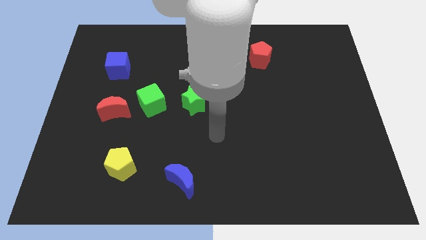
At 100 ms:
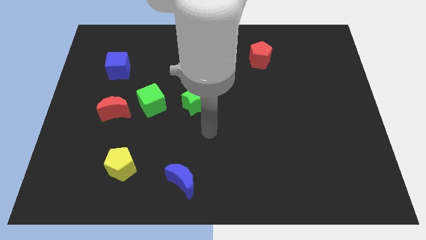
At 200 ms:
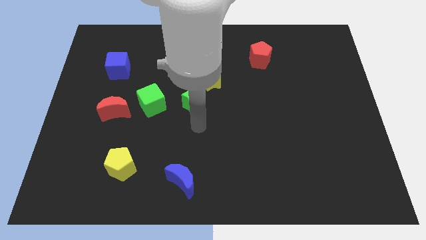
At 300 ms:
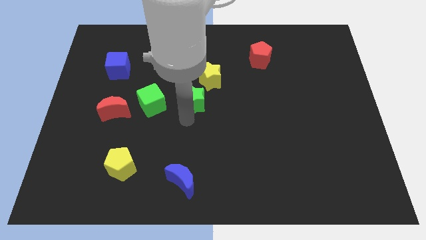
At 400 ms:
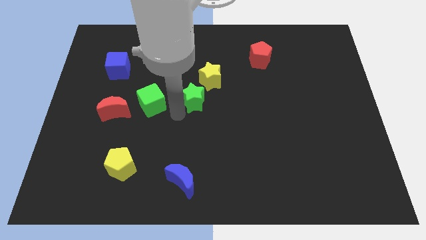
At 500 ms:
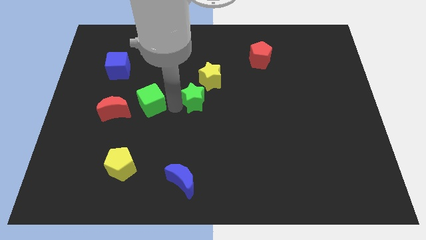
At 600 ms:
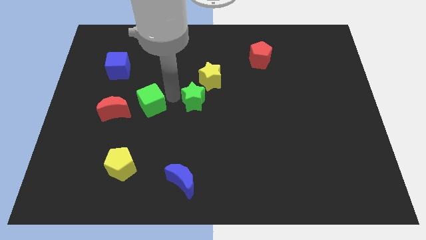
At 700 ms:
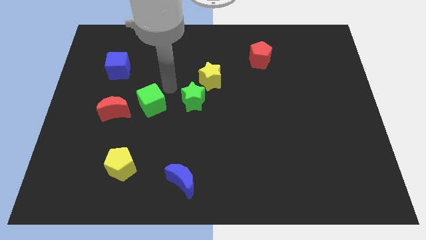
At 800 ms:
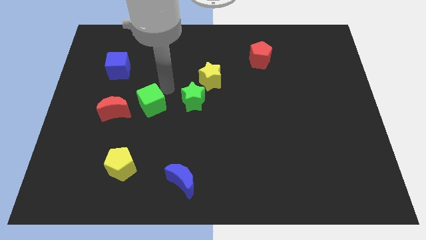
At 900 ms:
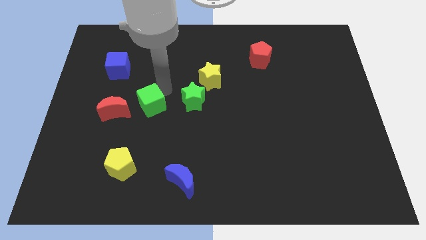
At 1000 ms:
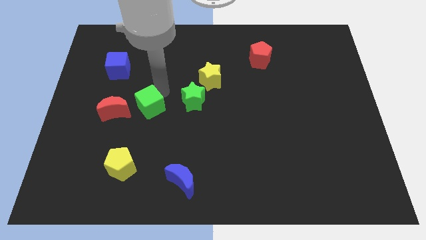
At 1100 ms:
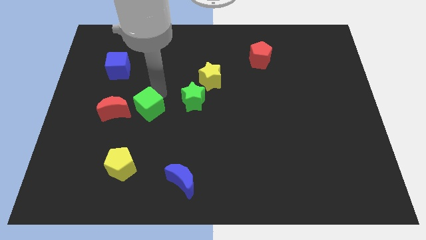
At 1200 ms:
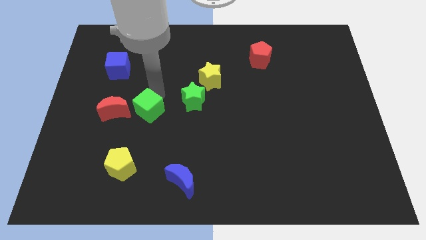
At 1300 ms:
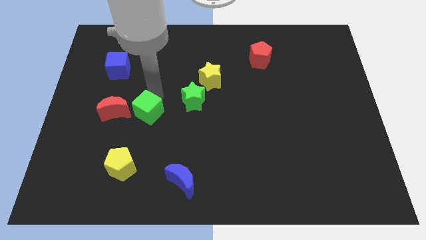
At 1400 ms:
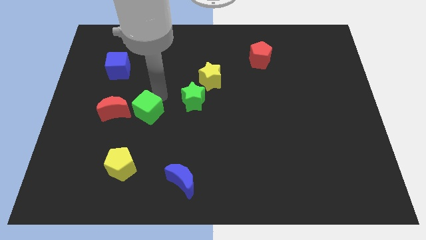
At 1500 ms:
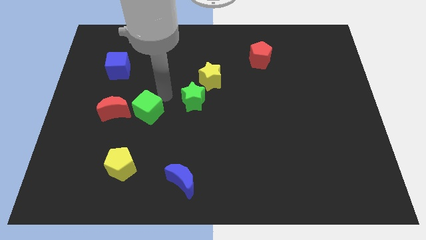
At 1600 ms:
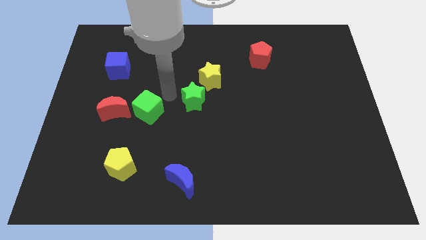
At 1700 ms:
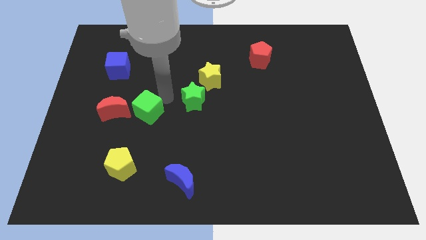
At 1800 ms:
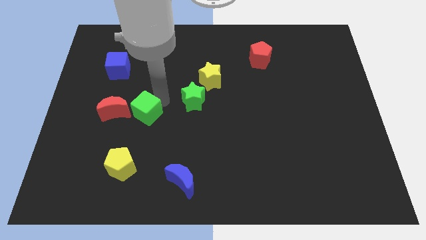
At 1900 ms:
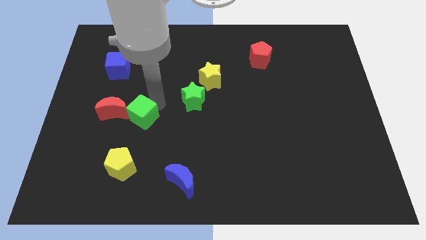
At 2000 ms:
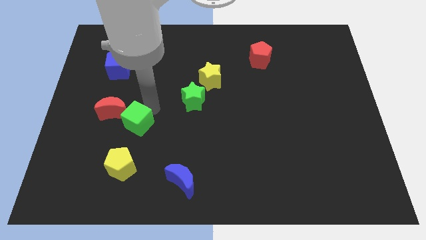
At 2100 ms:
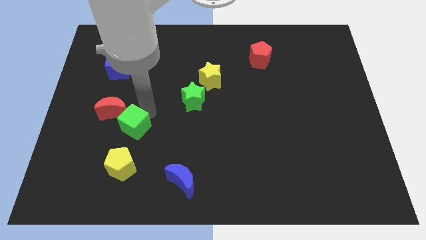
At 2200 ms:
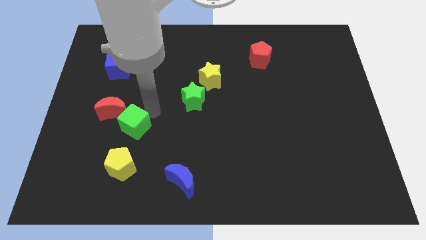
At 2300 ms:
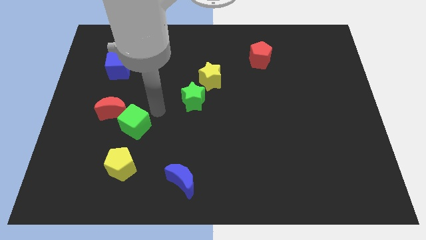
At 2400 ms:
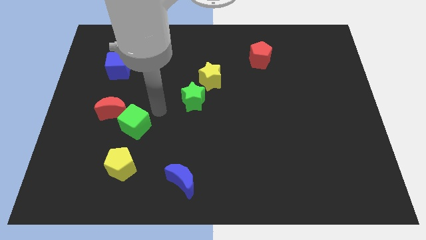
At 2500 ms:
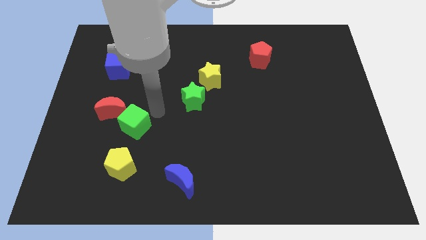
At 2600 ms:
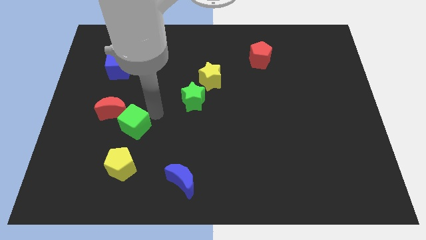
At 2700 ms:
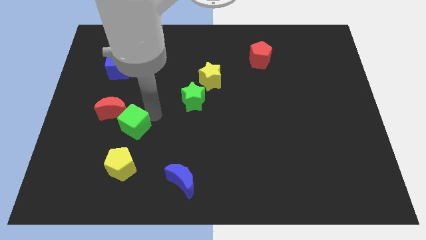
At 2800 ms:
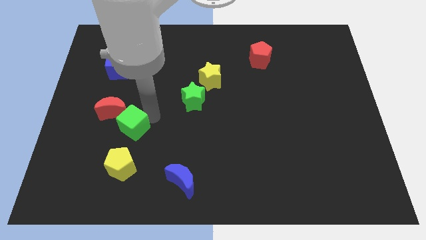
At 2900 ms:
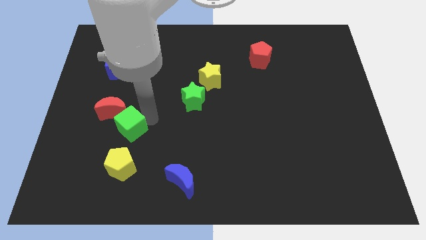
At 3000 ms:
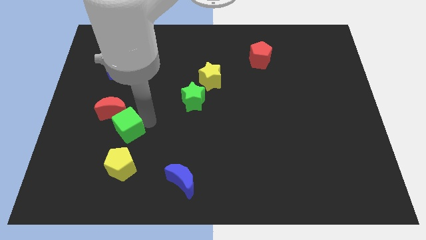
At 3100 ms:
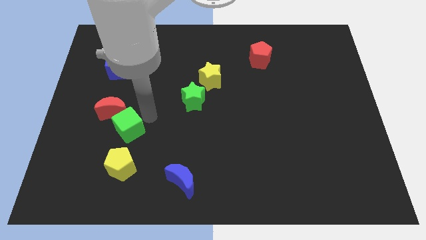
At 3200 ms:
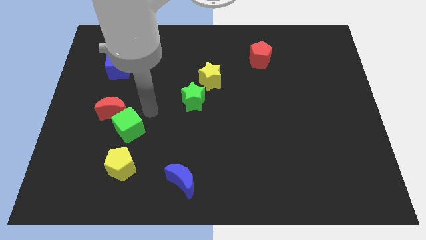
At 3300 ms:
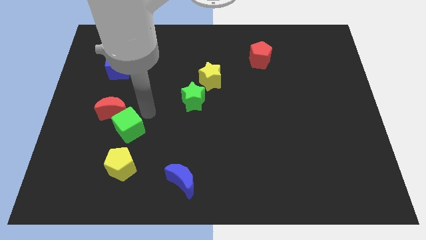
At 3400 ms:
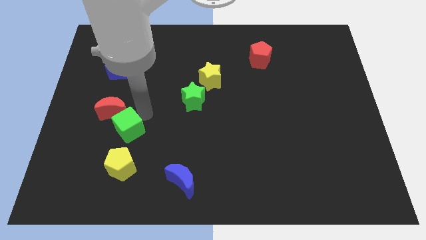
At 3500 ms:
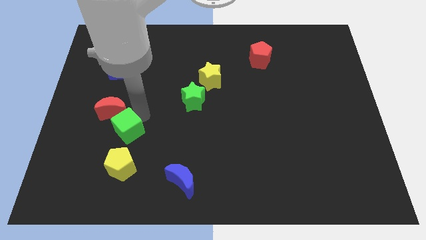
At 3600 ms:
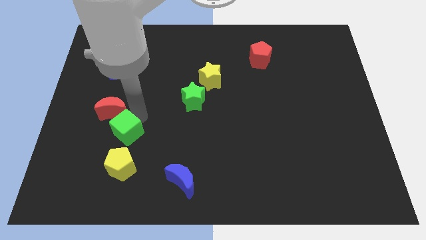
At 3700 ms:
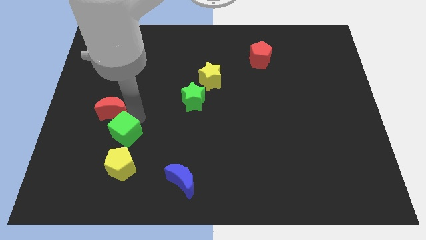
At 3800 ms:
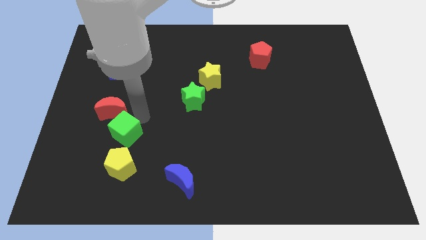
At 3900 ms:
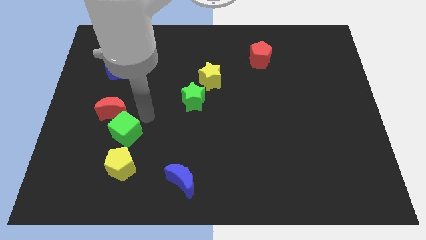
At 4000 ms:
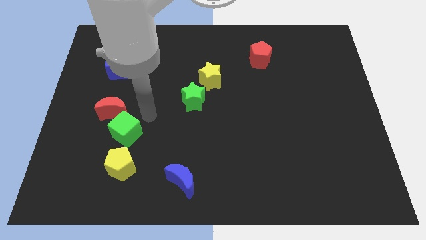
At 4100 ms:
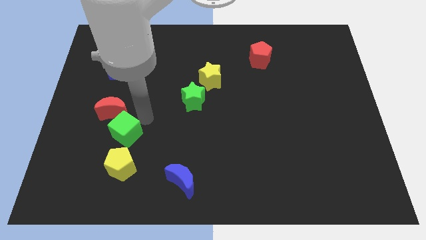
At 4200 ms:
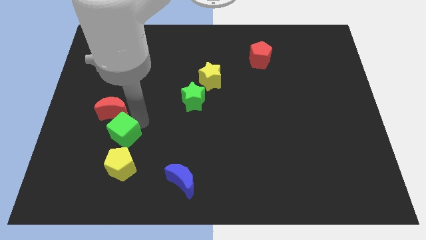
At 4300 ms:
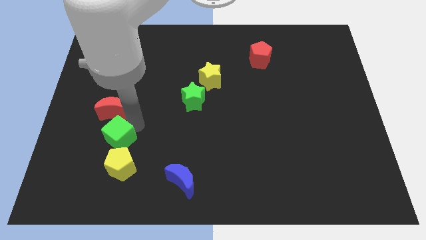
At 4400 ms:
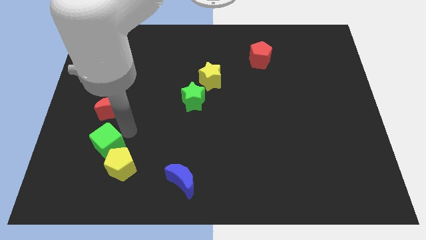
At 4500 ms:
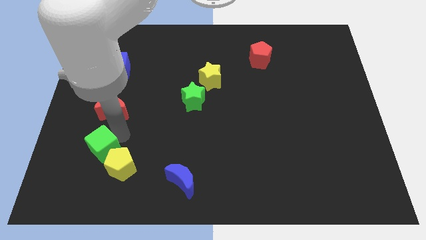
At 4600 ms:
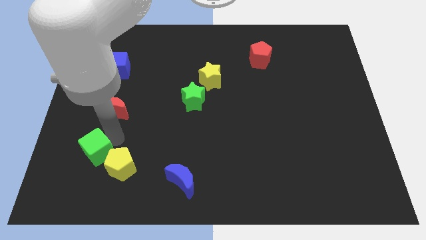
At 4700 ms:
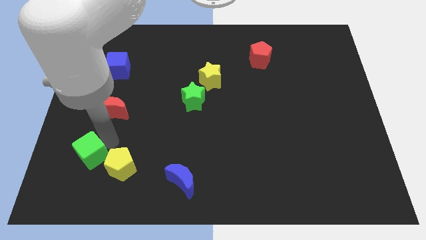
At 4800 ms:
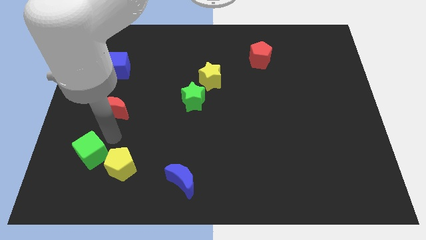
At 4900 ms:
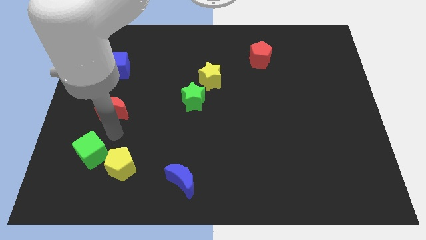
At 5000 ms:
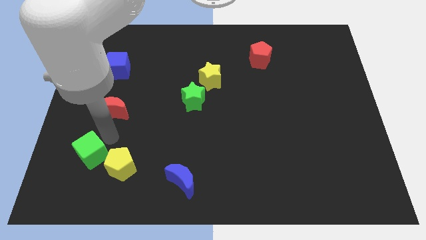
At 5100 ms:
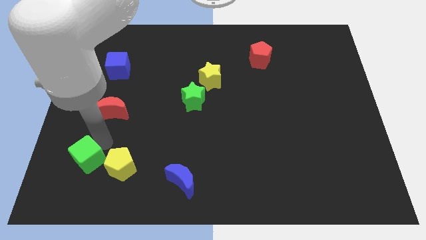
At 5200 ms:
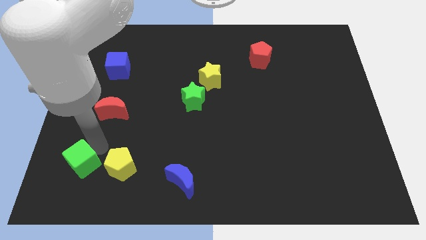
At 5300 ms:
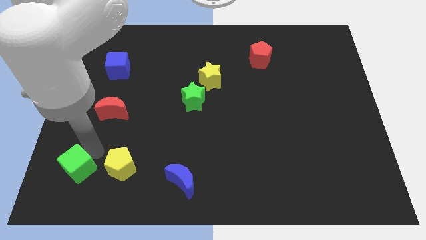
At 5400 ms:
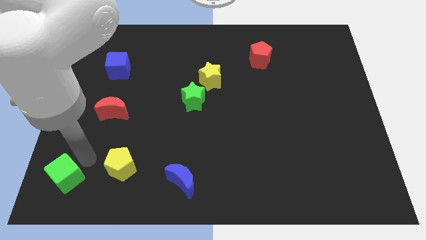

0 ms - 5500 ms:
push the green cube to the bottom left
